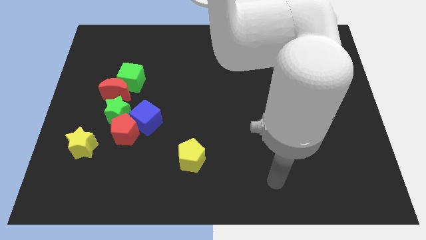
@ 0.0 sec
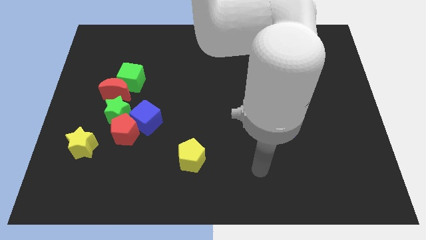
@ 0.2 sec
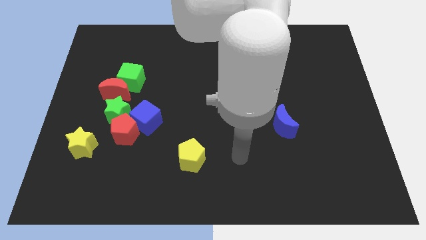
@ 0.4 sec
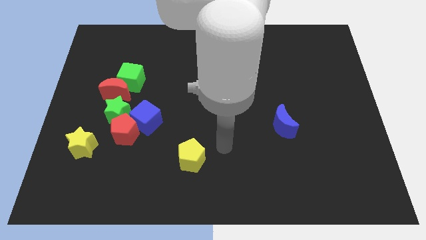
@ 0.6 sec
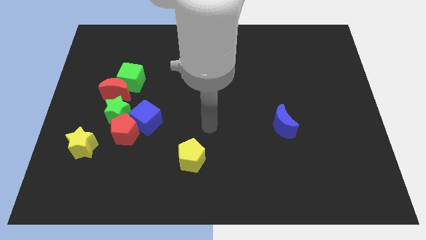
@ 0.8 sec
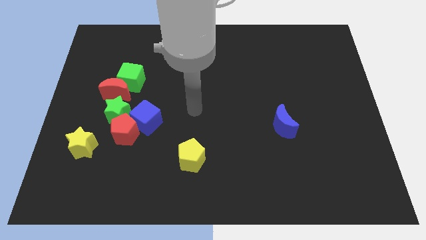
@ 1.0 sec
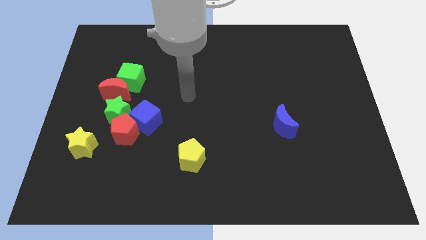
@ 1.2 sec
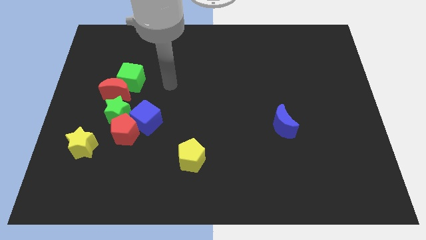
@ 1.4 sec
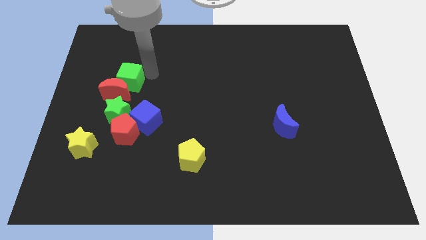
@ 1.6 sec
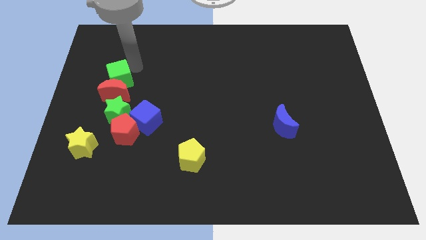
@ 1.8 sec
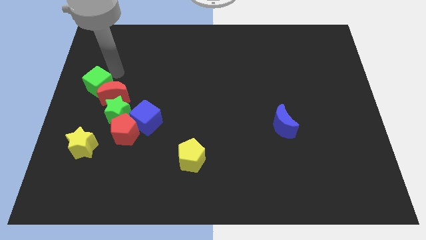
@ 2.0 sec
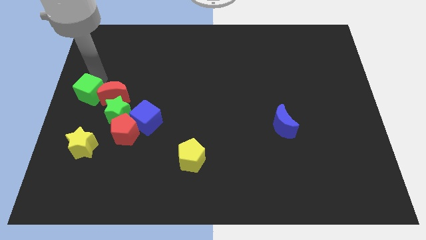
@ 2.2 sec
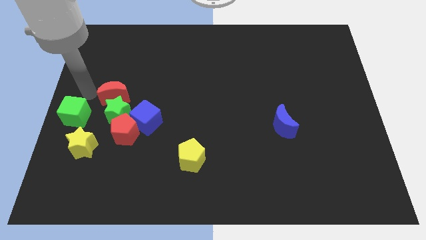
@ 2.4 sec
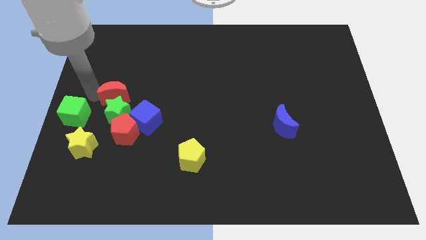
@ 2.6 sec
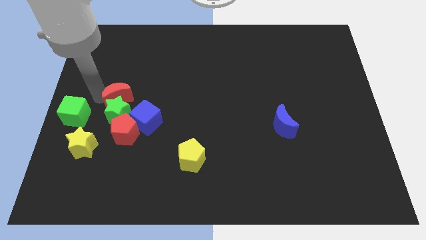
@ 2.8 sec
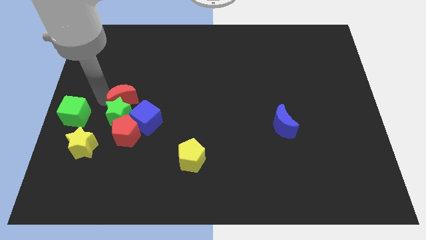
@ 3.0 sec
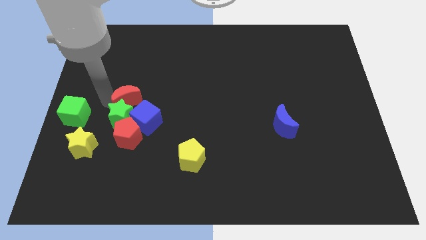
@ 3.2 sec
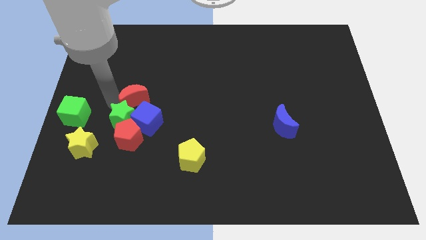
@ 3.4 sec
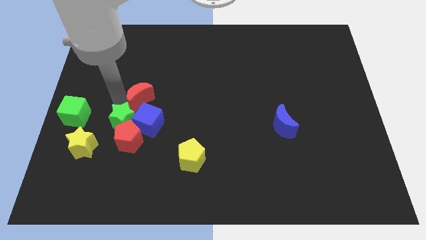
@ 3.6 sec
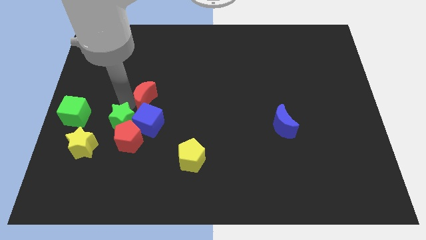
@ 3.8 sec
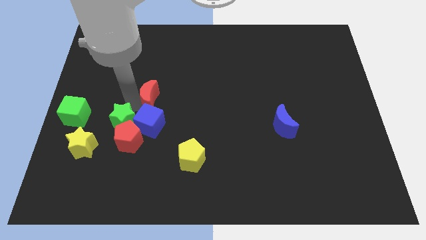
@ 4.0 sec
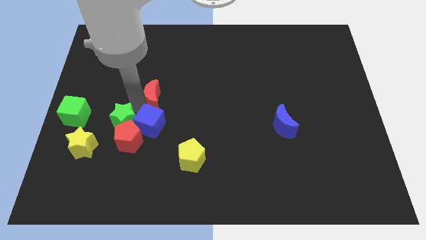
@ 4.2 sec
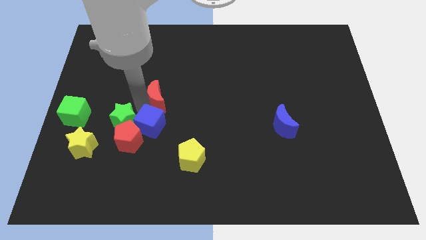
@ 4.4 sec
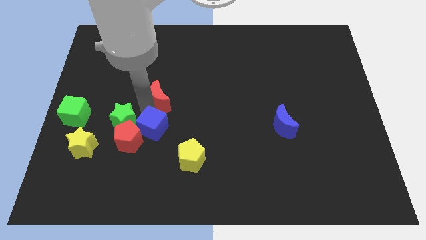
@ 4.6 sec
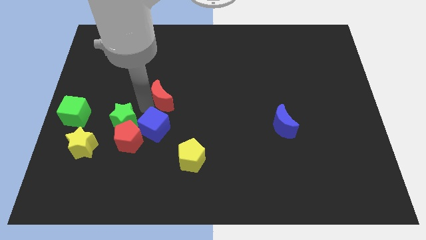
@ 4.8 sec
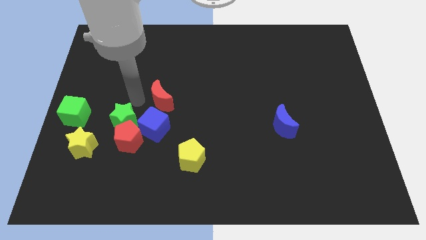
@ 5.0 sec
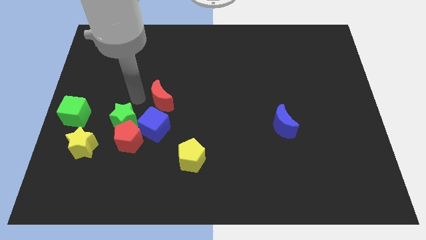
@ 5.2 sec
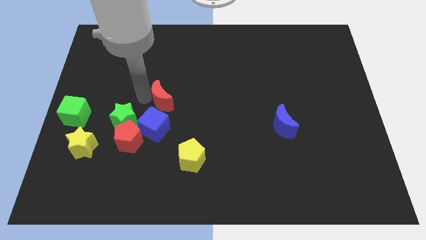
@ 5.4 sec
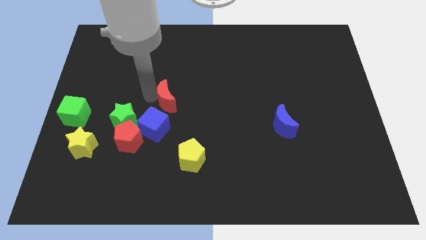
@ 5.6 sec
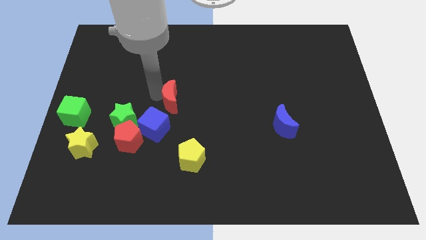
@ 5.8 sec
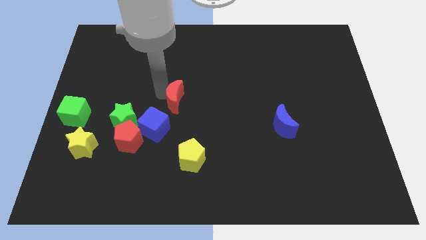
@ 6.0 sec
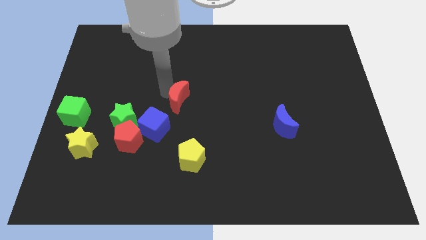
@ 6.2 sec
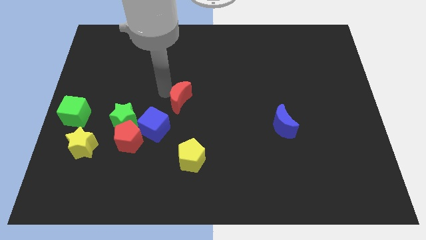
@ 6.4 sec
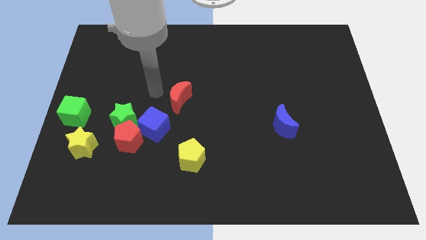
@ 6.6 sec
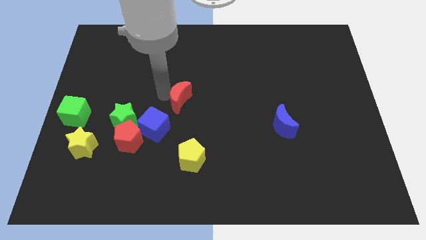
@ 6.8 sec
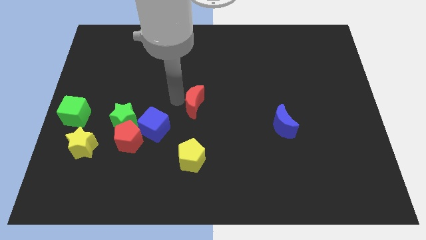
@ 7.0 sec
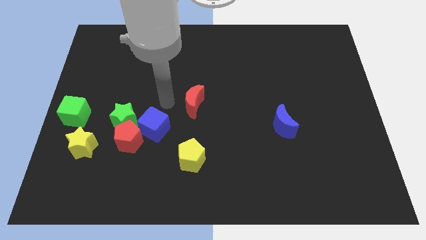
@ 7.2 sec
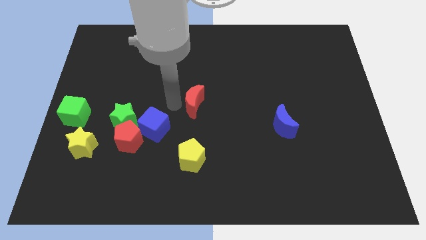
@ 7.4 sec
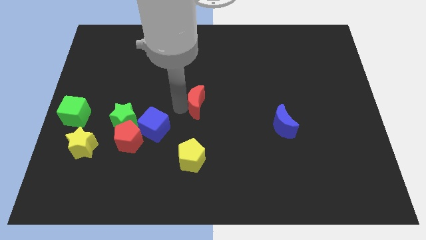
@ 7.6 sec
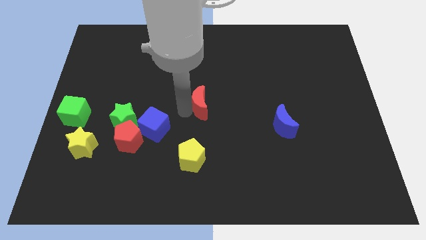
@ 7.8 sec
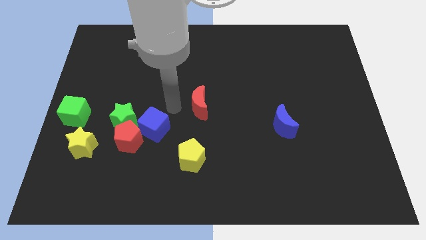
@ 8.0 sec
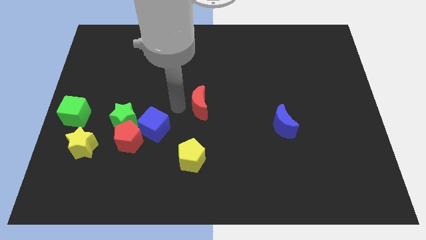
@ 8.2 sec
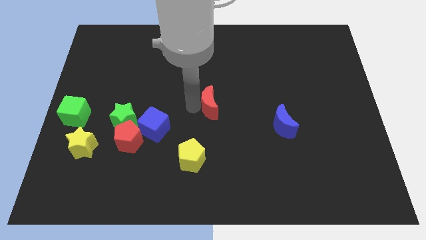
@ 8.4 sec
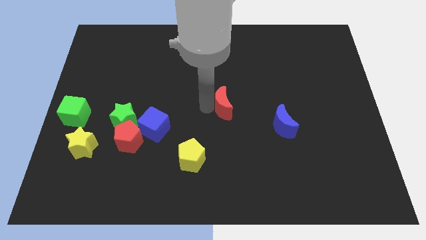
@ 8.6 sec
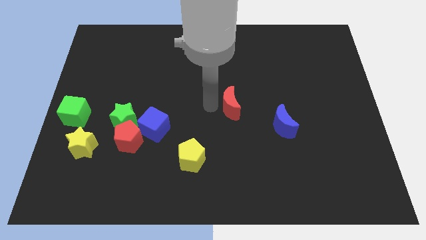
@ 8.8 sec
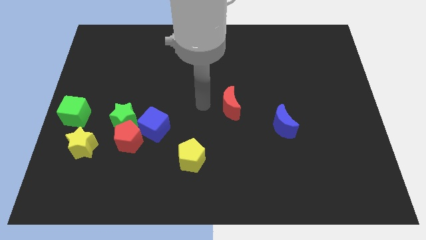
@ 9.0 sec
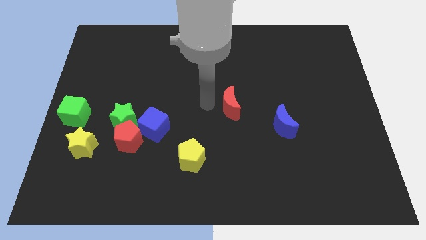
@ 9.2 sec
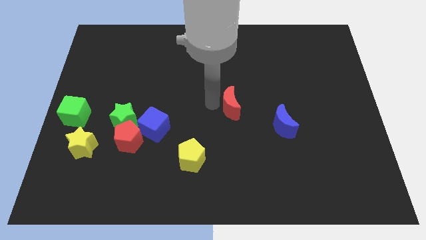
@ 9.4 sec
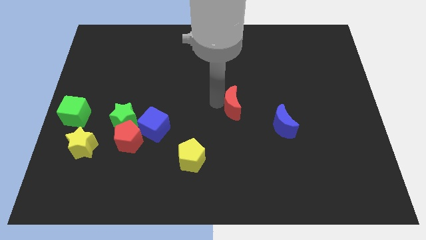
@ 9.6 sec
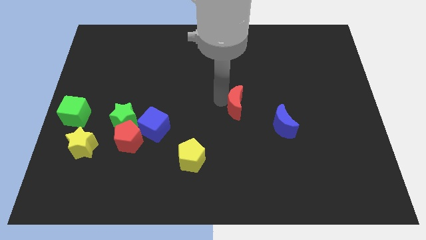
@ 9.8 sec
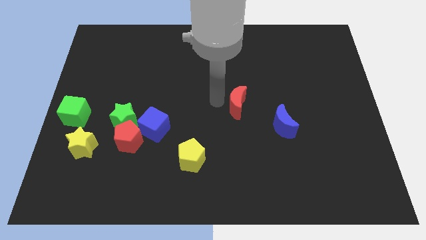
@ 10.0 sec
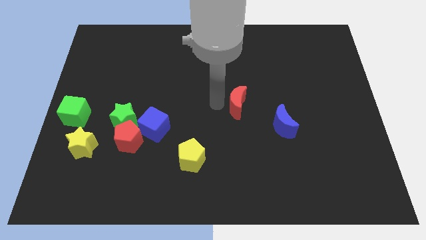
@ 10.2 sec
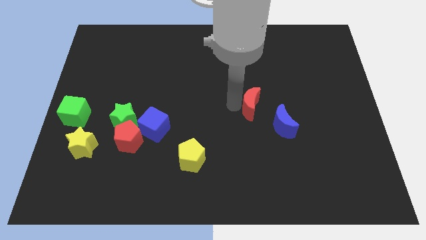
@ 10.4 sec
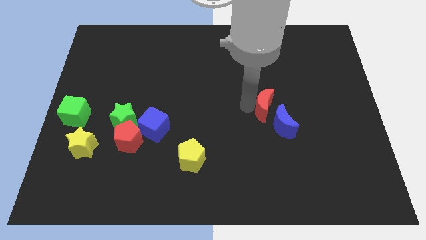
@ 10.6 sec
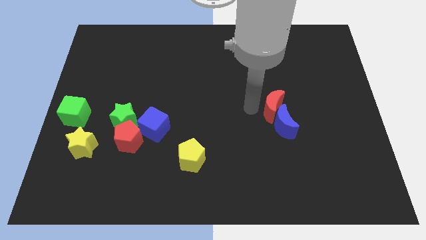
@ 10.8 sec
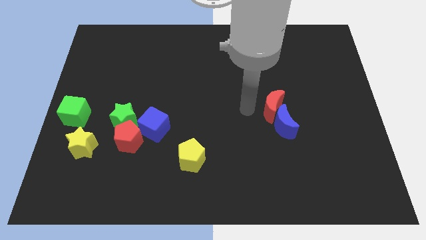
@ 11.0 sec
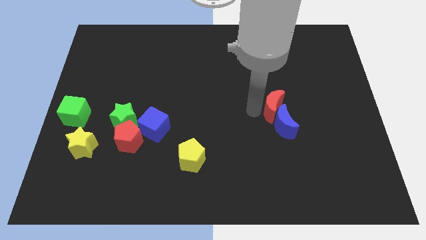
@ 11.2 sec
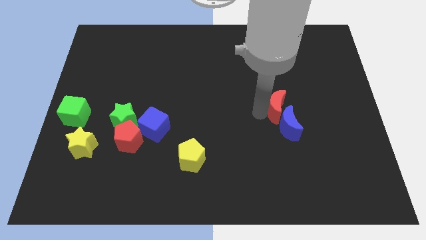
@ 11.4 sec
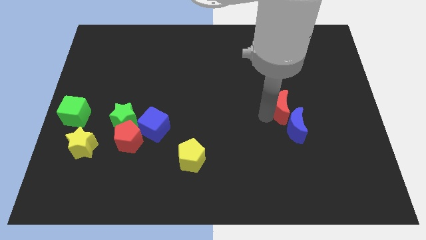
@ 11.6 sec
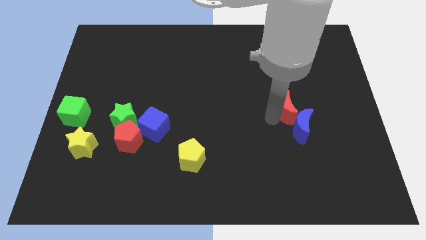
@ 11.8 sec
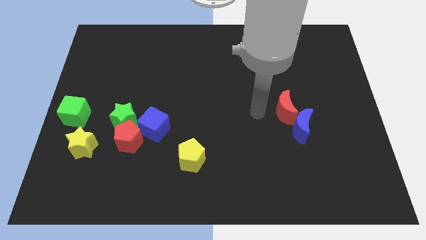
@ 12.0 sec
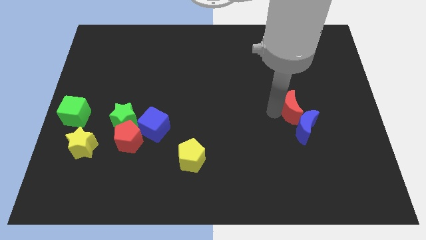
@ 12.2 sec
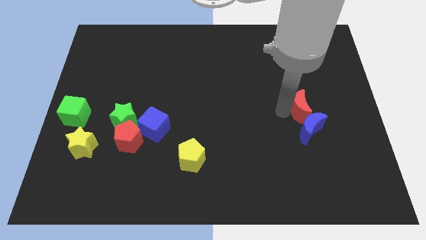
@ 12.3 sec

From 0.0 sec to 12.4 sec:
move the red moon diagonally up and to the right of the blue moon

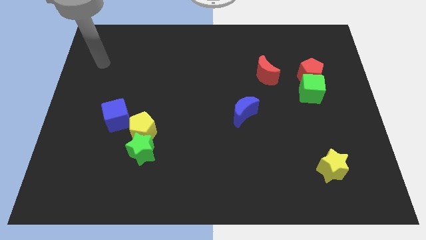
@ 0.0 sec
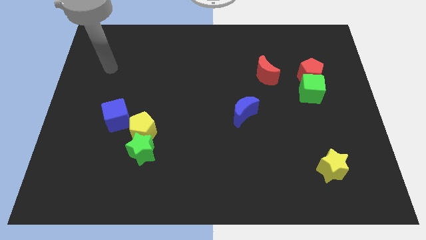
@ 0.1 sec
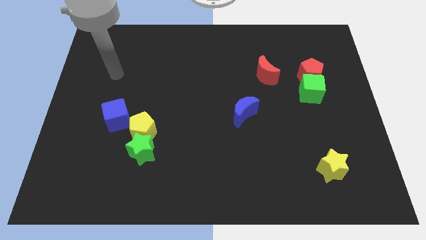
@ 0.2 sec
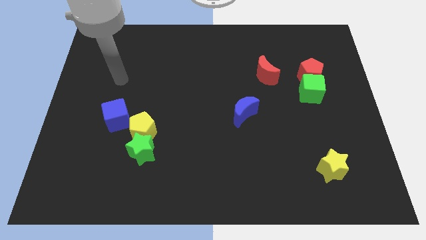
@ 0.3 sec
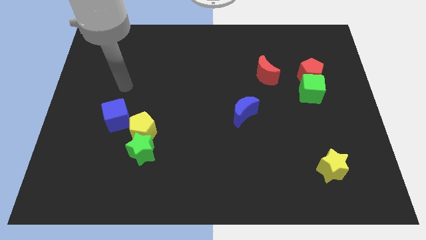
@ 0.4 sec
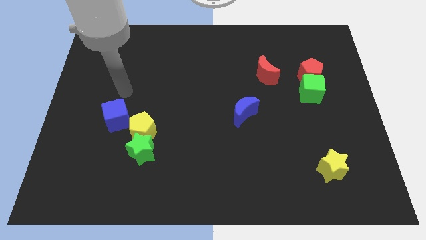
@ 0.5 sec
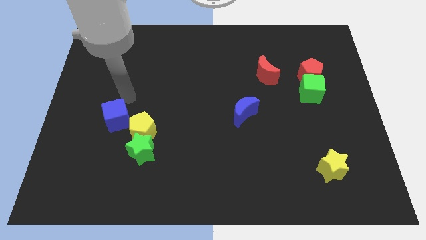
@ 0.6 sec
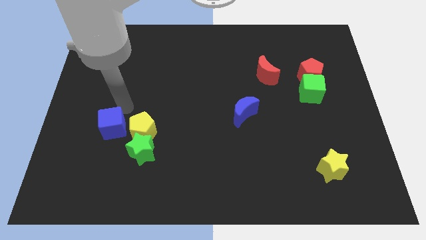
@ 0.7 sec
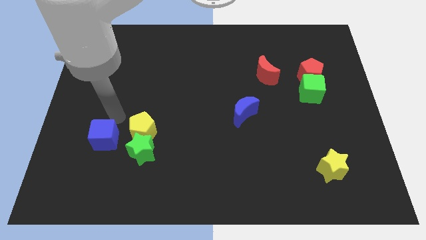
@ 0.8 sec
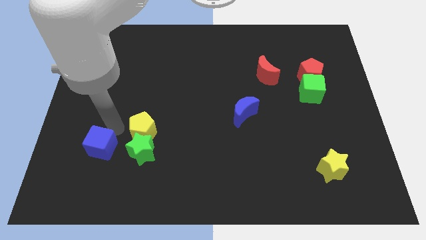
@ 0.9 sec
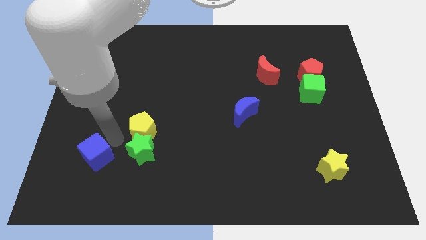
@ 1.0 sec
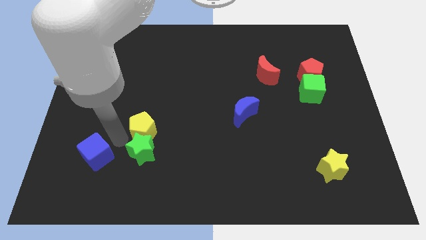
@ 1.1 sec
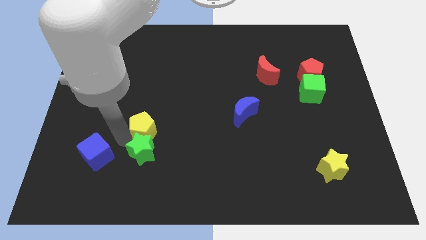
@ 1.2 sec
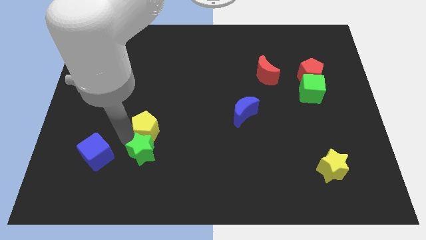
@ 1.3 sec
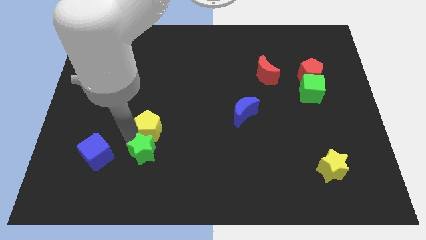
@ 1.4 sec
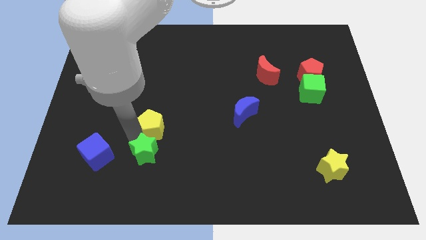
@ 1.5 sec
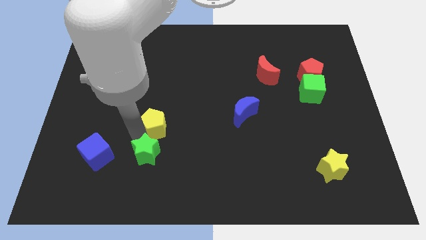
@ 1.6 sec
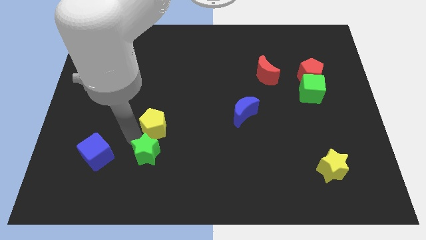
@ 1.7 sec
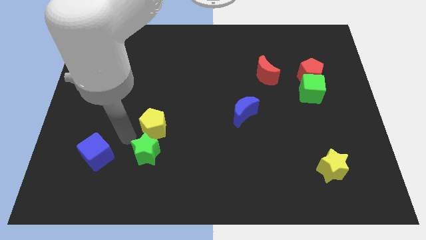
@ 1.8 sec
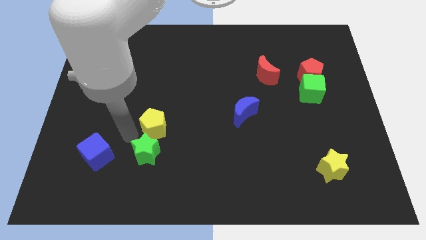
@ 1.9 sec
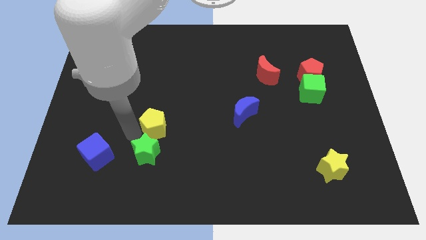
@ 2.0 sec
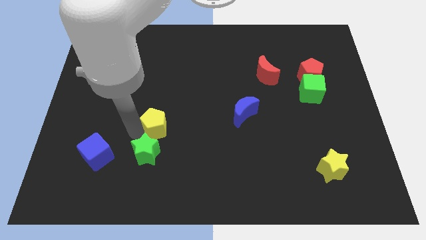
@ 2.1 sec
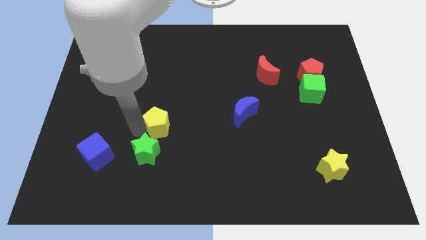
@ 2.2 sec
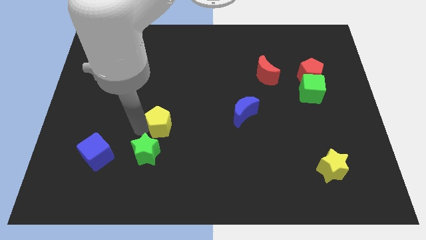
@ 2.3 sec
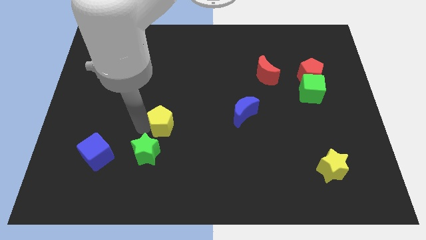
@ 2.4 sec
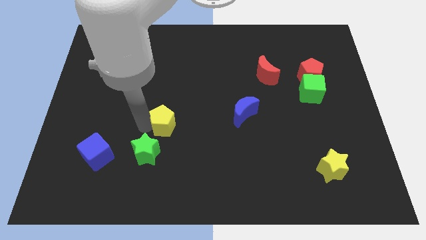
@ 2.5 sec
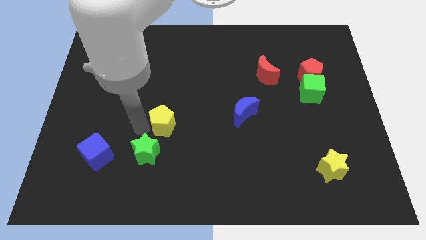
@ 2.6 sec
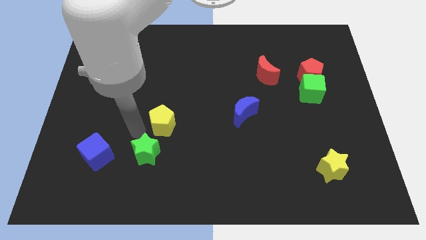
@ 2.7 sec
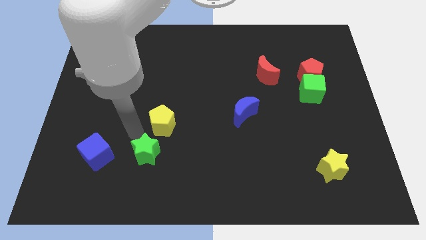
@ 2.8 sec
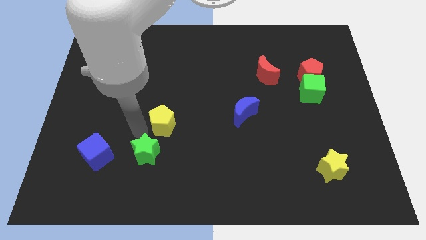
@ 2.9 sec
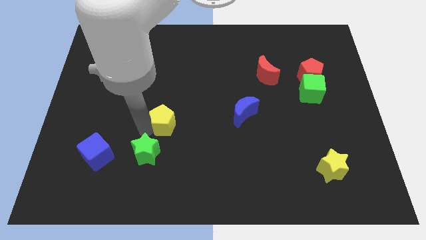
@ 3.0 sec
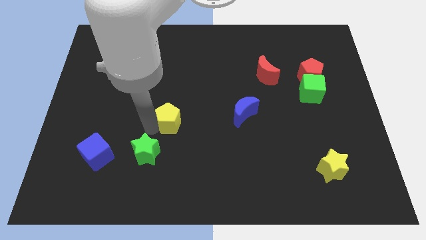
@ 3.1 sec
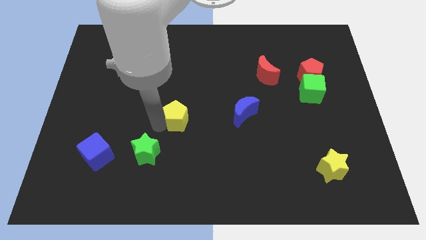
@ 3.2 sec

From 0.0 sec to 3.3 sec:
move the yellow pentagon left of the blue moon
